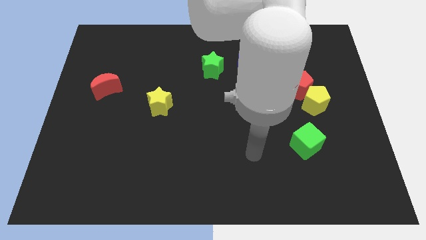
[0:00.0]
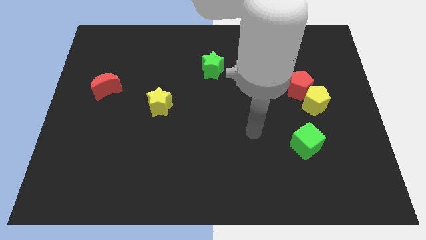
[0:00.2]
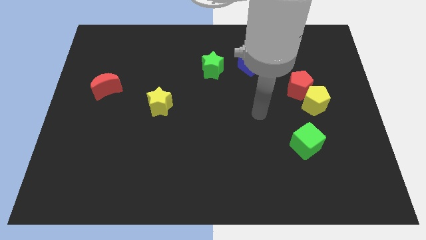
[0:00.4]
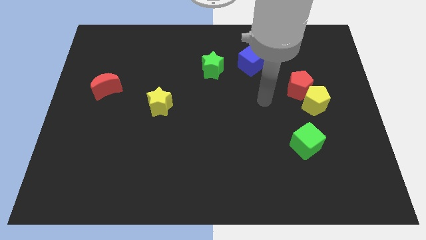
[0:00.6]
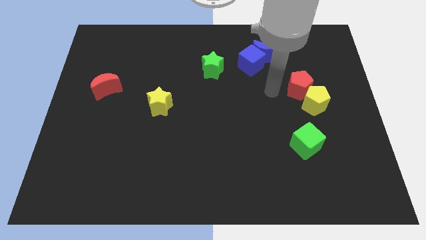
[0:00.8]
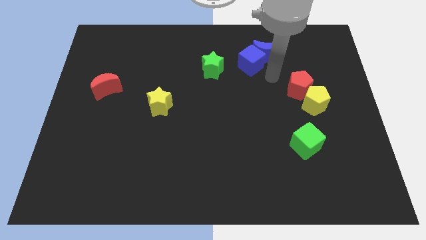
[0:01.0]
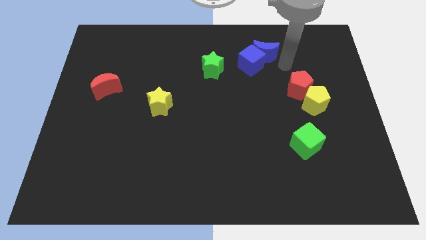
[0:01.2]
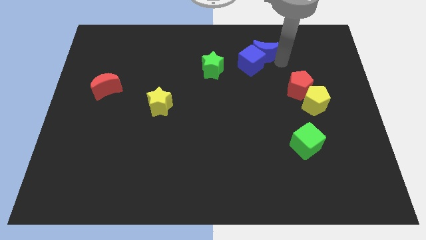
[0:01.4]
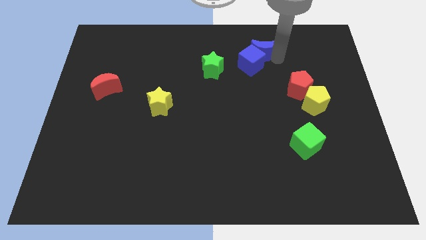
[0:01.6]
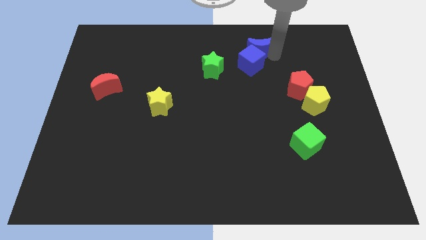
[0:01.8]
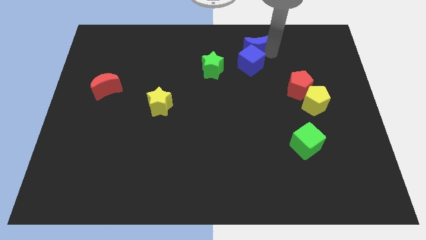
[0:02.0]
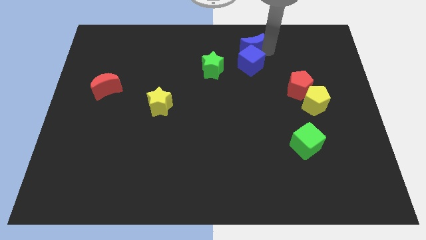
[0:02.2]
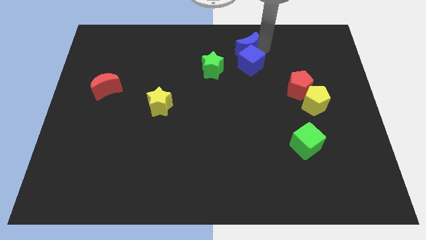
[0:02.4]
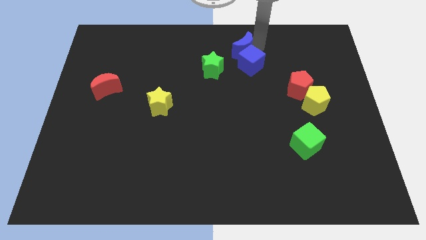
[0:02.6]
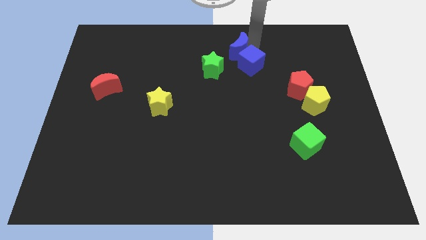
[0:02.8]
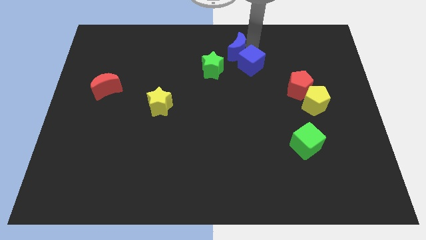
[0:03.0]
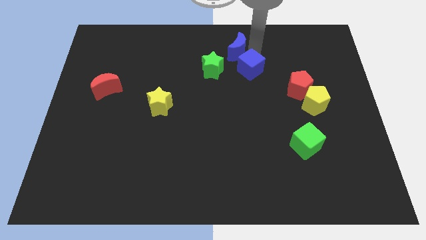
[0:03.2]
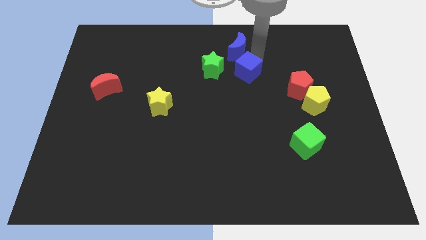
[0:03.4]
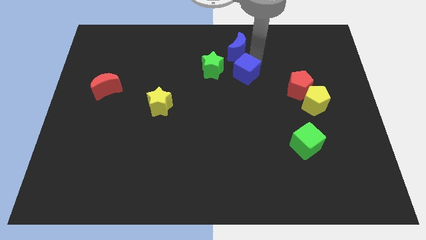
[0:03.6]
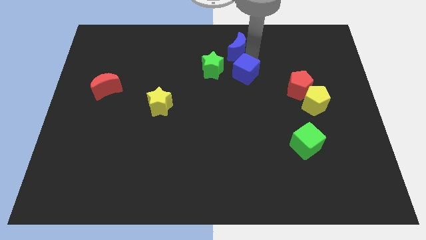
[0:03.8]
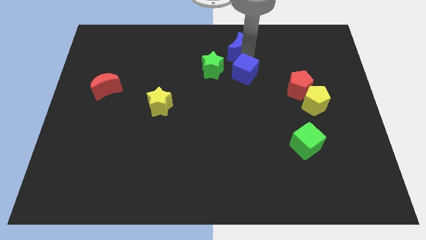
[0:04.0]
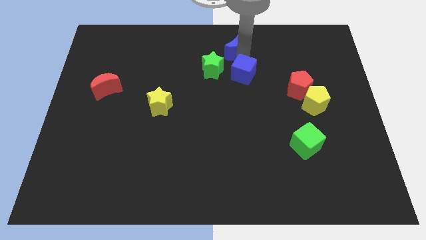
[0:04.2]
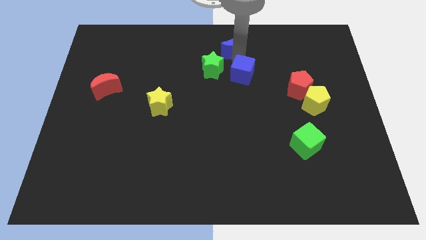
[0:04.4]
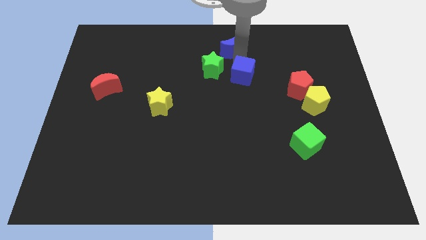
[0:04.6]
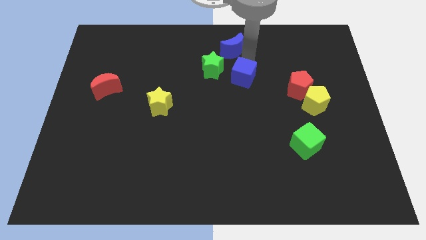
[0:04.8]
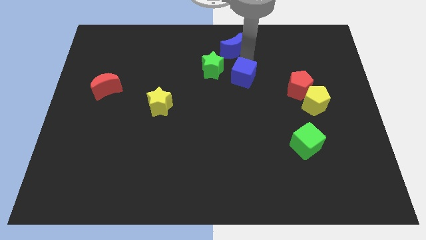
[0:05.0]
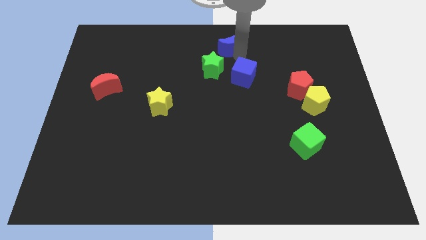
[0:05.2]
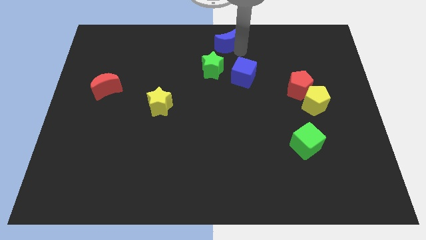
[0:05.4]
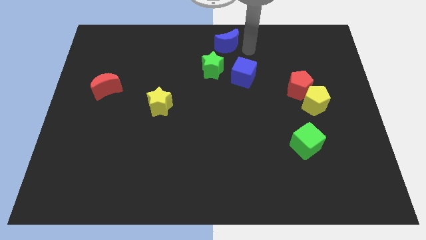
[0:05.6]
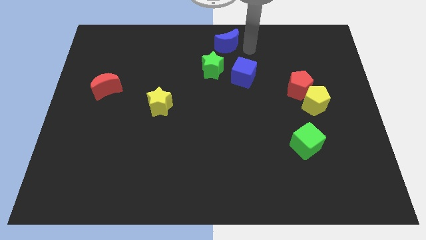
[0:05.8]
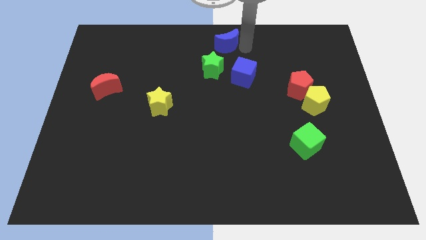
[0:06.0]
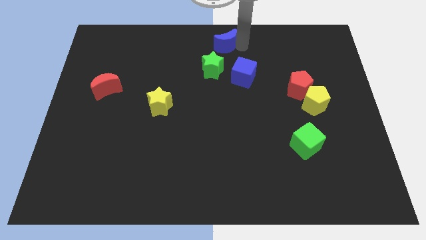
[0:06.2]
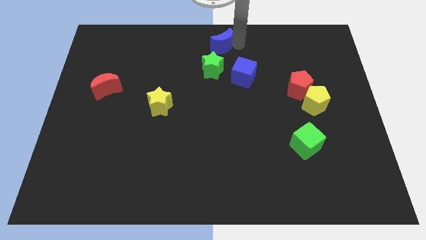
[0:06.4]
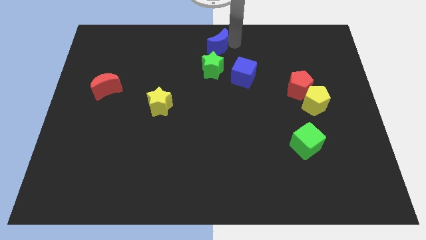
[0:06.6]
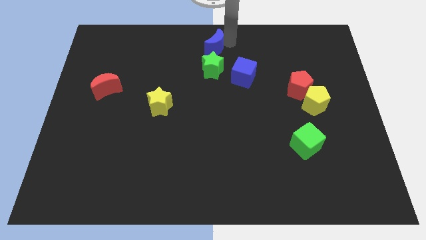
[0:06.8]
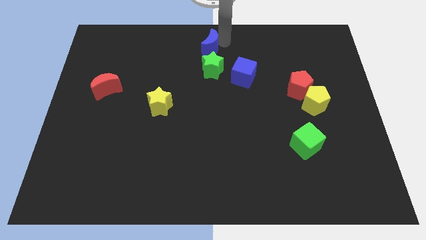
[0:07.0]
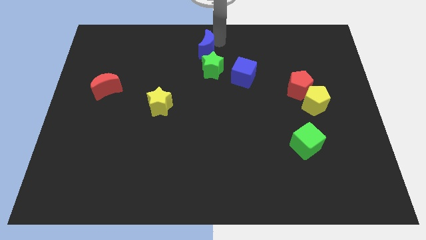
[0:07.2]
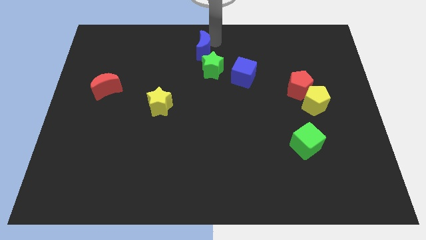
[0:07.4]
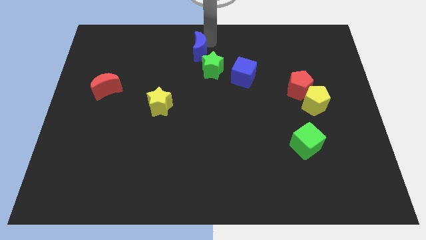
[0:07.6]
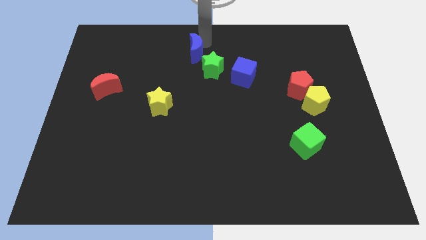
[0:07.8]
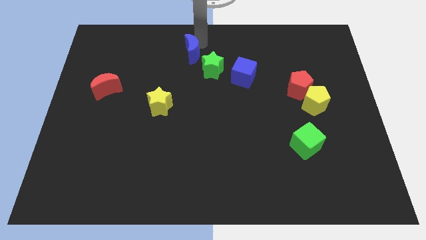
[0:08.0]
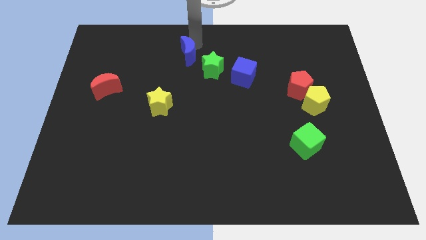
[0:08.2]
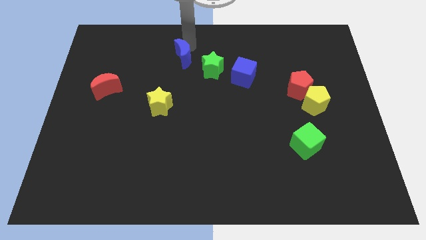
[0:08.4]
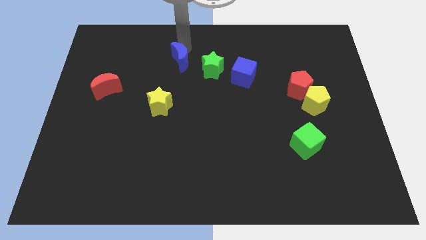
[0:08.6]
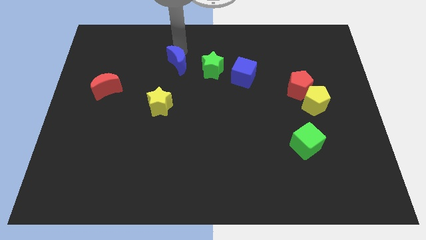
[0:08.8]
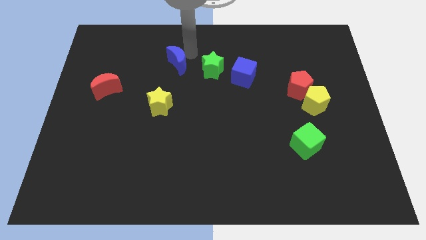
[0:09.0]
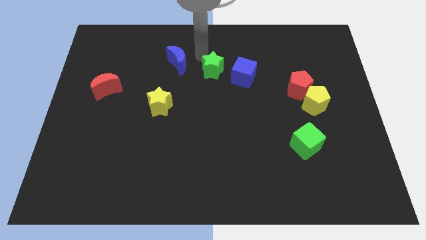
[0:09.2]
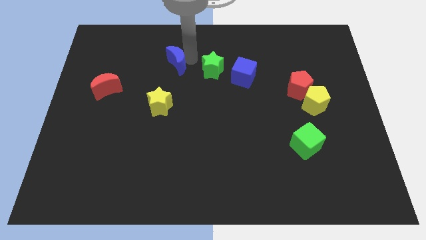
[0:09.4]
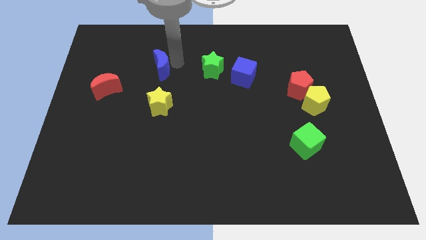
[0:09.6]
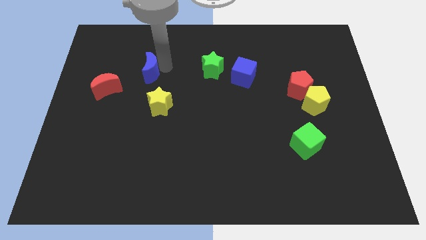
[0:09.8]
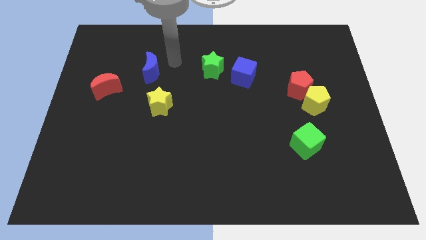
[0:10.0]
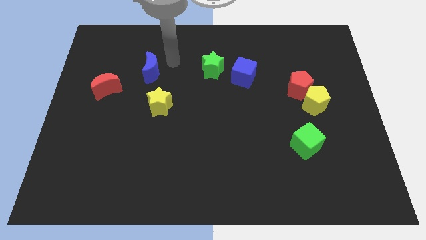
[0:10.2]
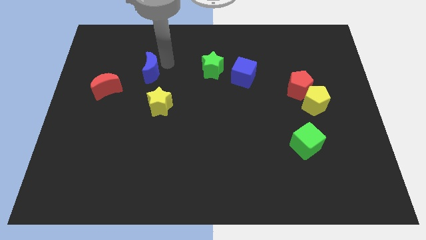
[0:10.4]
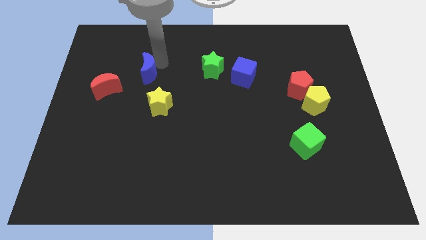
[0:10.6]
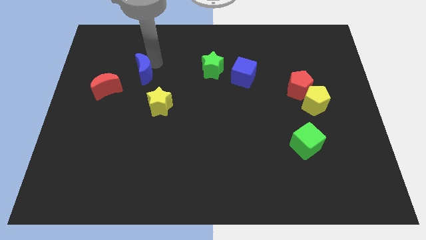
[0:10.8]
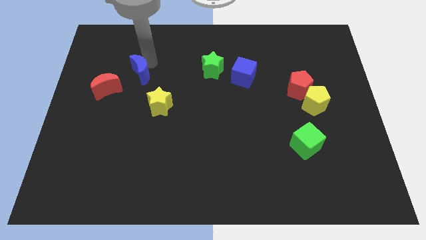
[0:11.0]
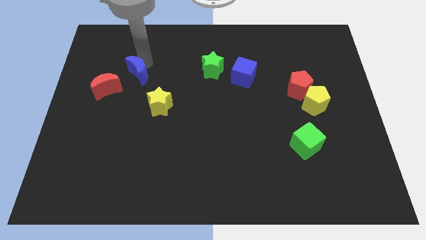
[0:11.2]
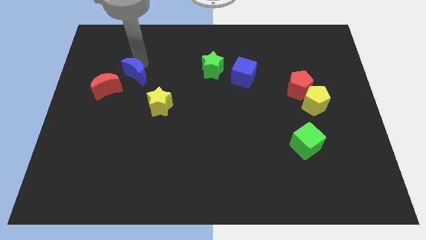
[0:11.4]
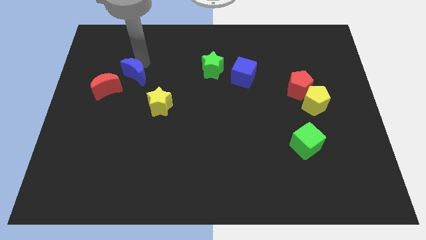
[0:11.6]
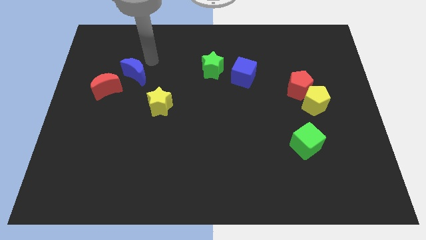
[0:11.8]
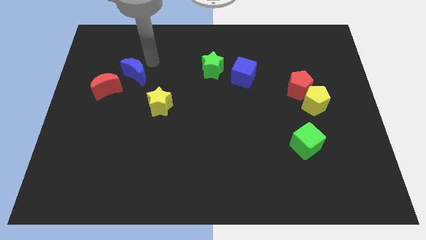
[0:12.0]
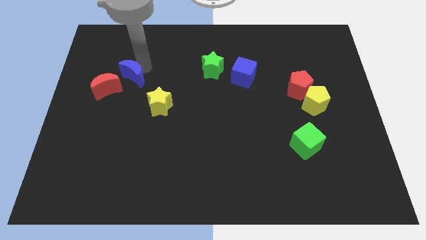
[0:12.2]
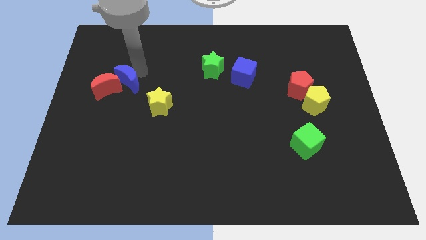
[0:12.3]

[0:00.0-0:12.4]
slide the blue moon next to the red moon

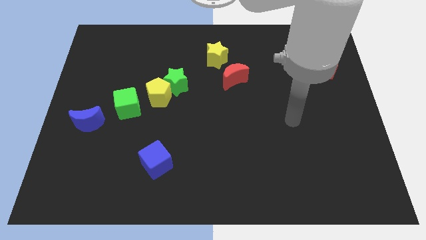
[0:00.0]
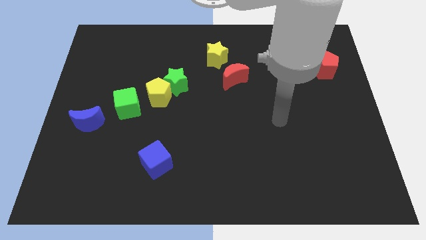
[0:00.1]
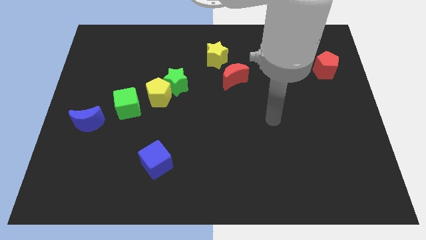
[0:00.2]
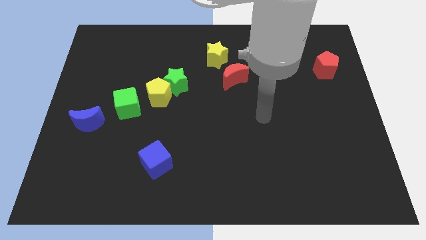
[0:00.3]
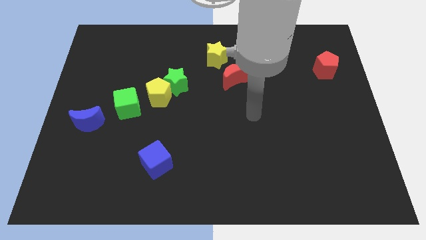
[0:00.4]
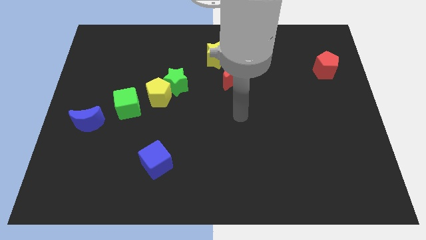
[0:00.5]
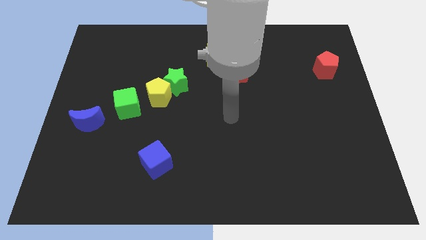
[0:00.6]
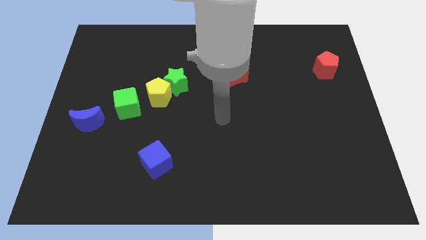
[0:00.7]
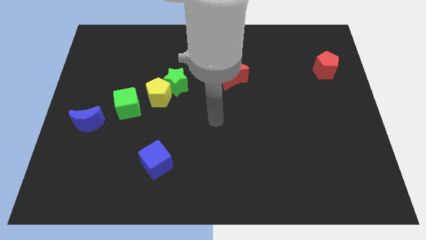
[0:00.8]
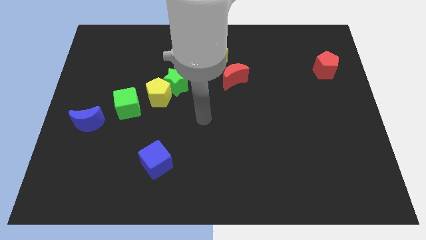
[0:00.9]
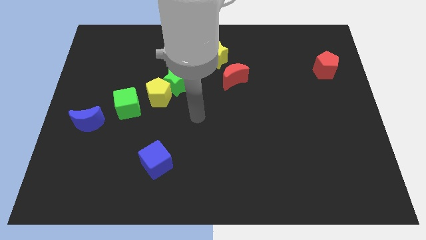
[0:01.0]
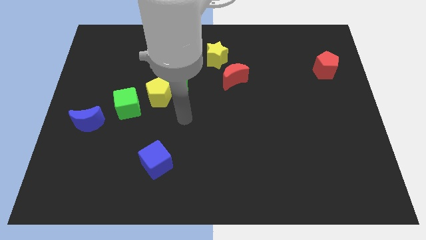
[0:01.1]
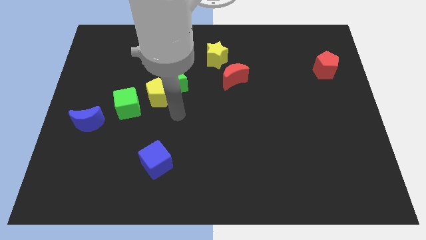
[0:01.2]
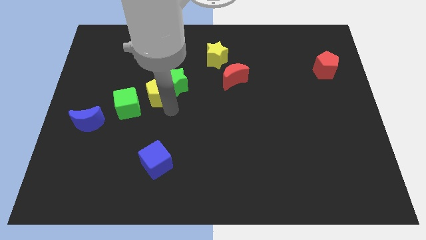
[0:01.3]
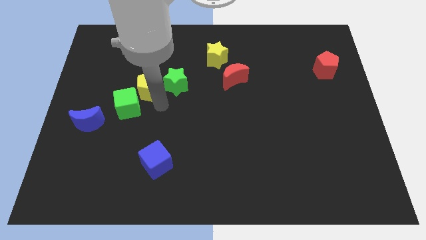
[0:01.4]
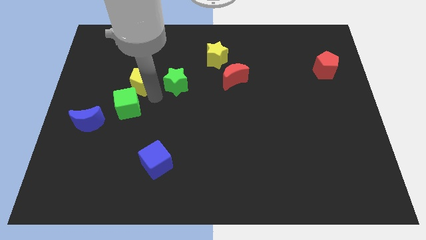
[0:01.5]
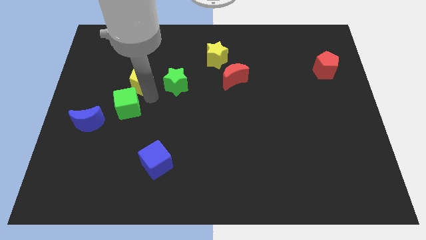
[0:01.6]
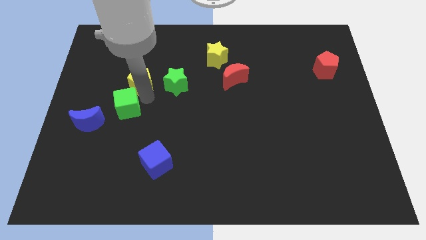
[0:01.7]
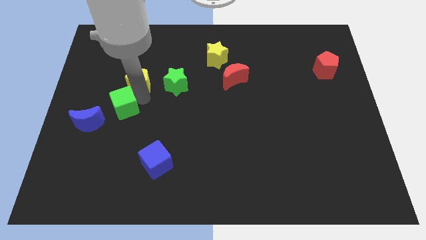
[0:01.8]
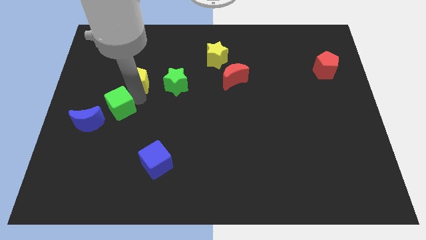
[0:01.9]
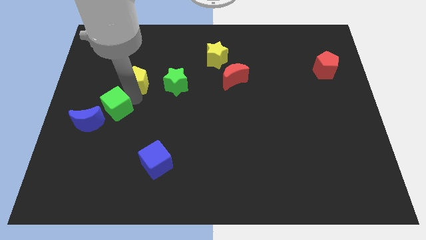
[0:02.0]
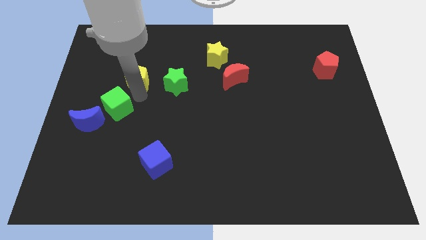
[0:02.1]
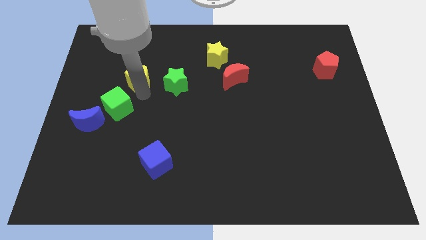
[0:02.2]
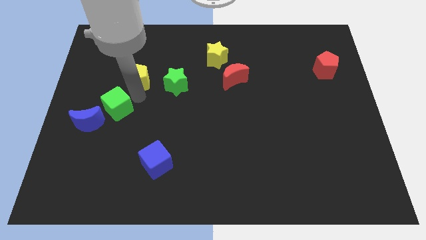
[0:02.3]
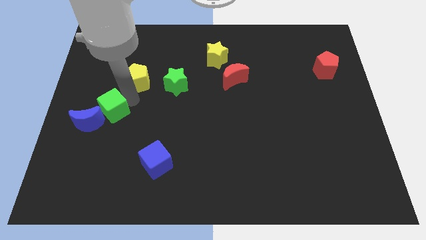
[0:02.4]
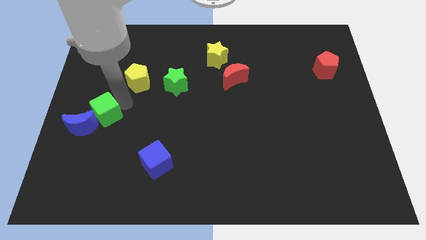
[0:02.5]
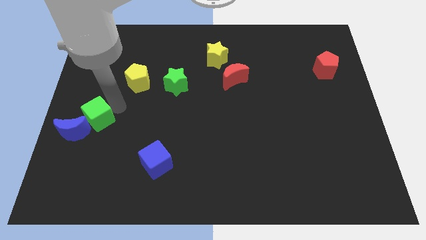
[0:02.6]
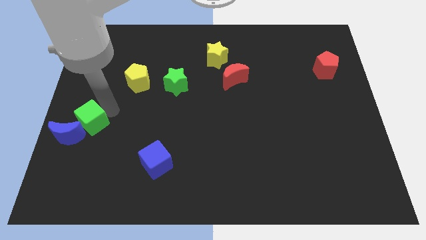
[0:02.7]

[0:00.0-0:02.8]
put the green cube close to the blue moon
